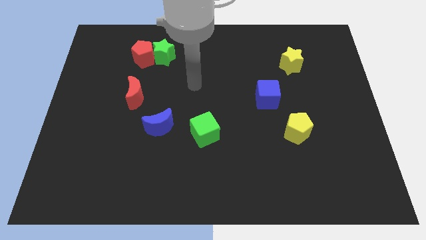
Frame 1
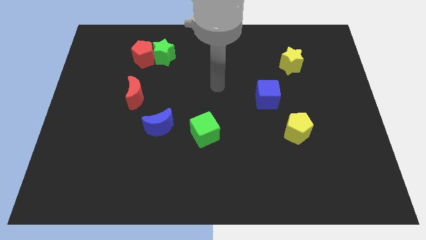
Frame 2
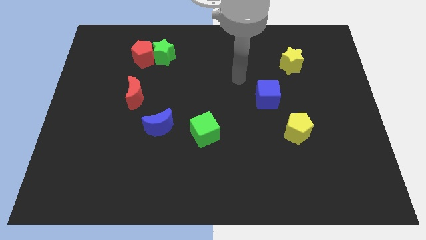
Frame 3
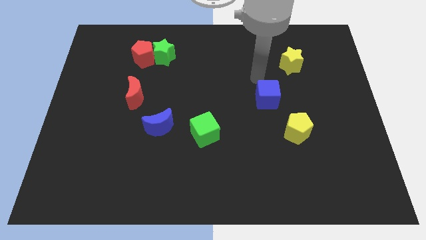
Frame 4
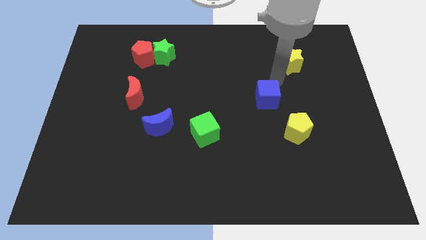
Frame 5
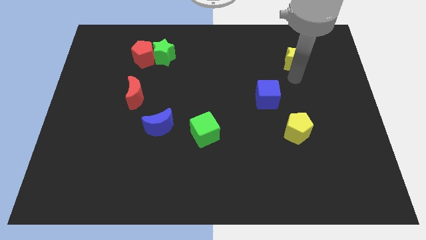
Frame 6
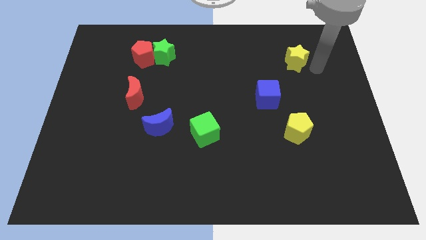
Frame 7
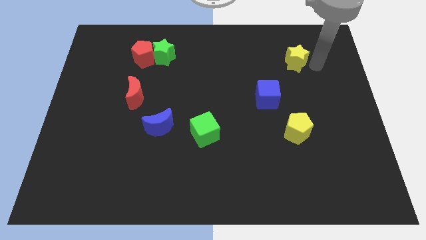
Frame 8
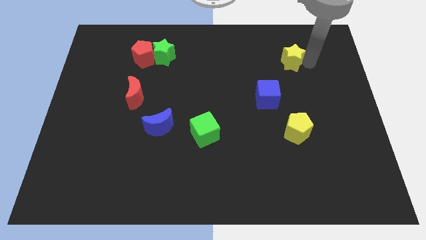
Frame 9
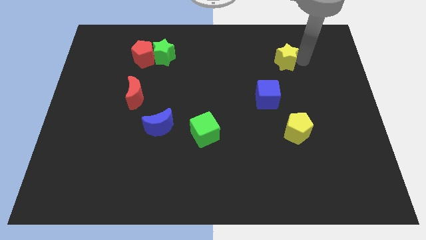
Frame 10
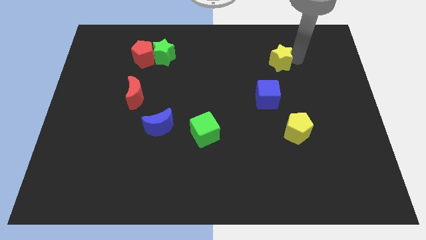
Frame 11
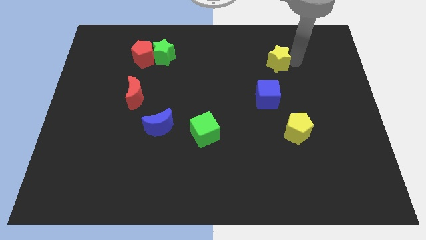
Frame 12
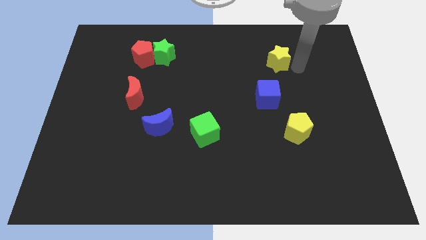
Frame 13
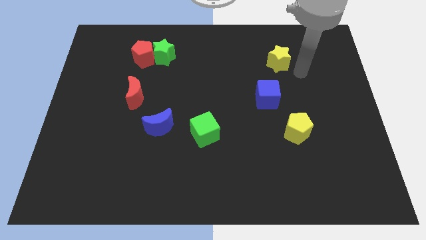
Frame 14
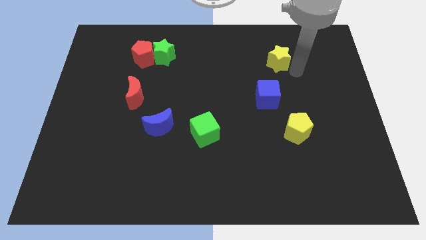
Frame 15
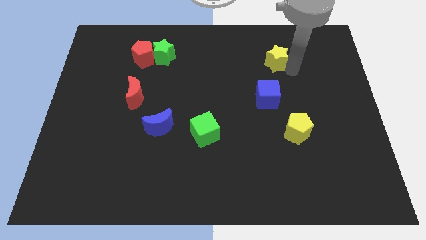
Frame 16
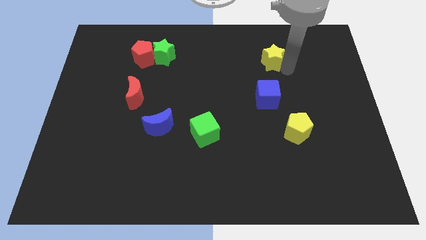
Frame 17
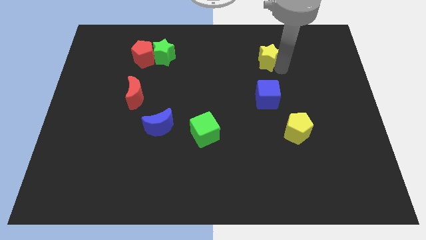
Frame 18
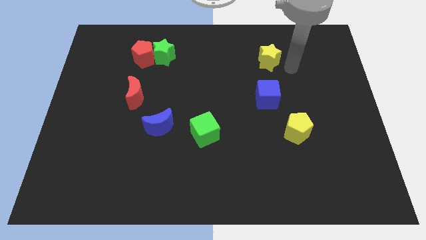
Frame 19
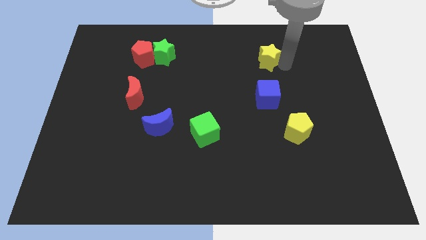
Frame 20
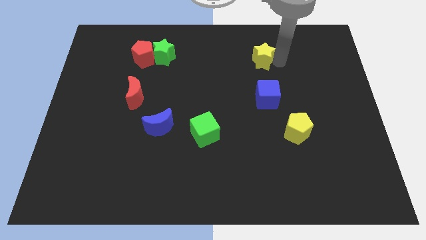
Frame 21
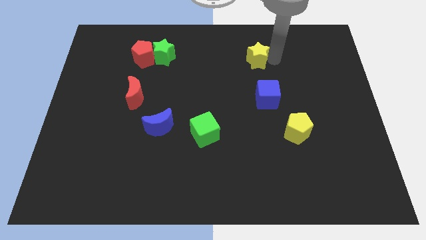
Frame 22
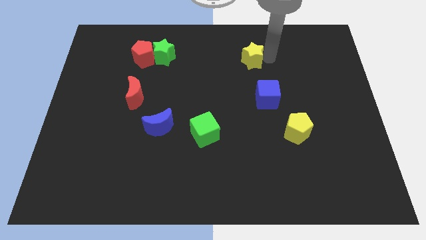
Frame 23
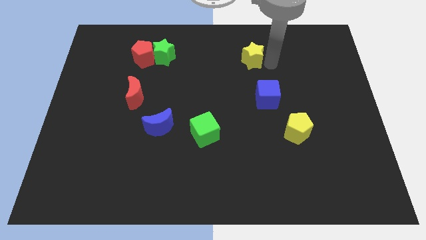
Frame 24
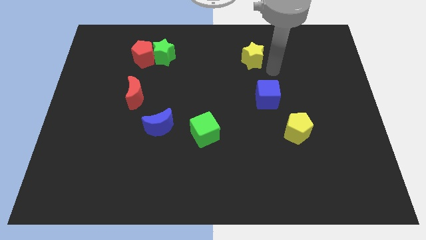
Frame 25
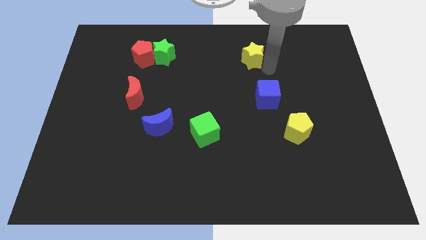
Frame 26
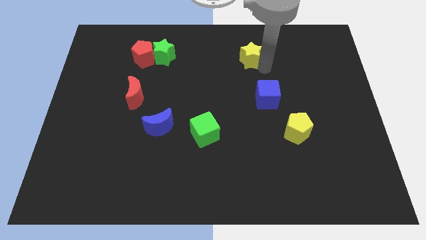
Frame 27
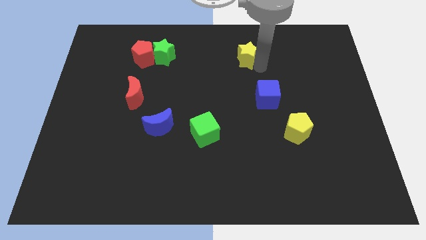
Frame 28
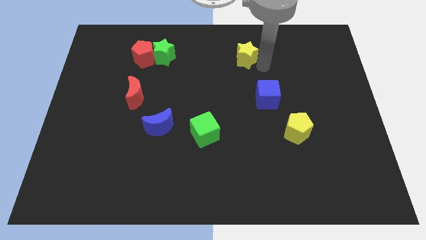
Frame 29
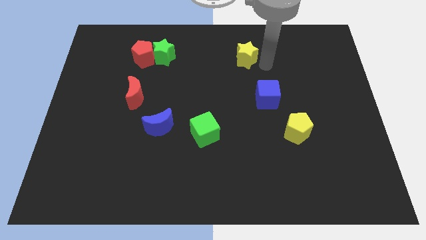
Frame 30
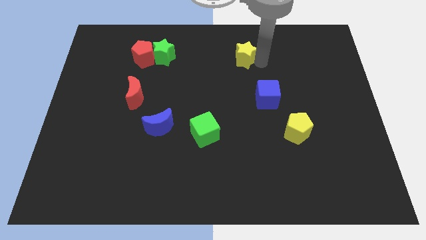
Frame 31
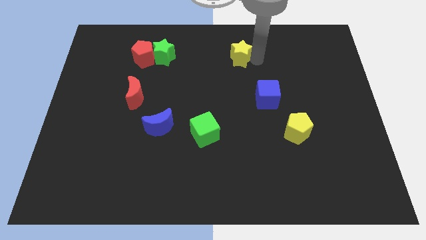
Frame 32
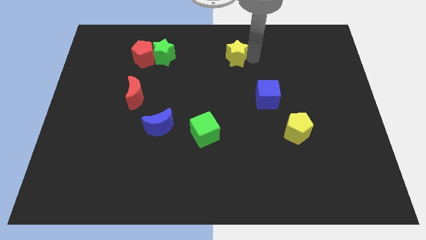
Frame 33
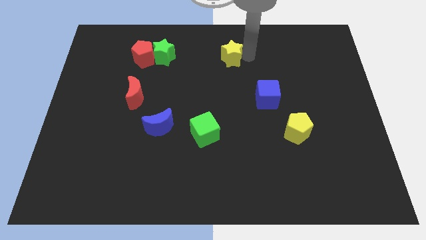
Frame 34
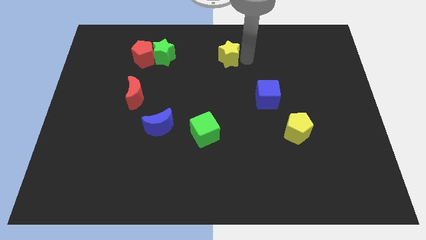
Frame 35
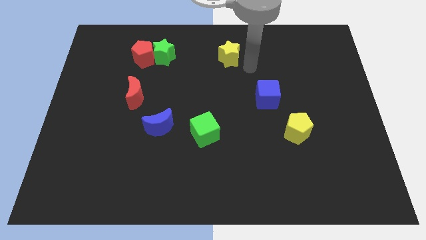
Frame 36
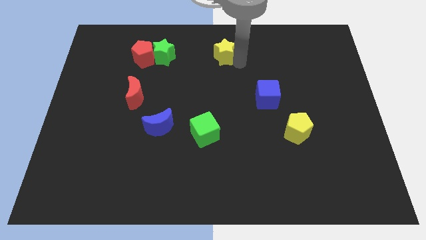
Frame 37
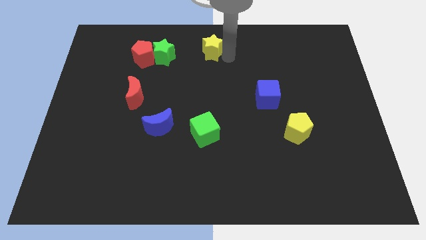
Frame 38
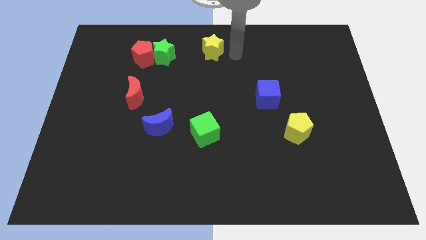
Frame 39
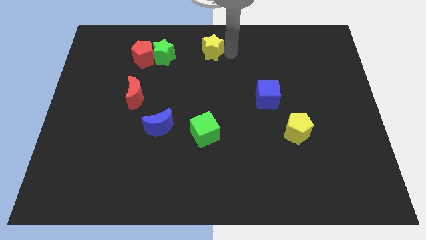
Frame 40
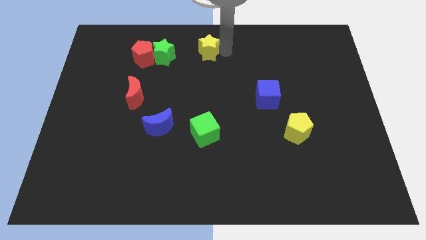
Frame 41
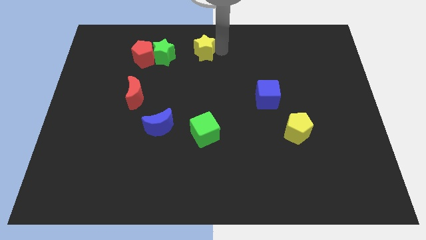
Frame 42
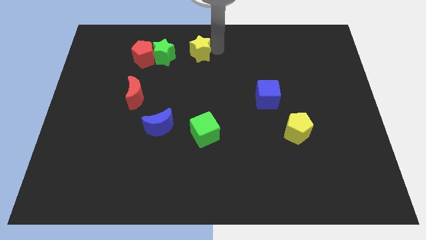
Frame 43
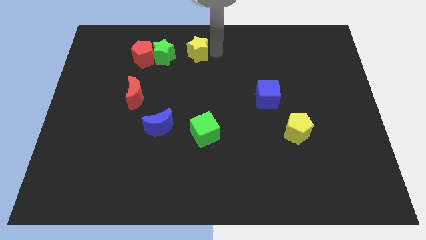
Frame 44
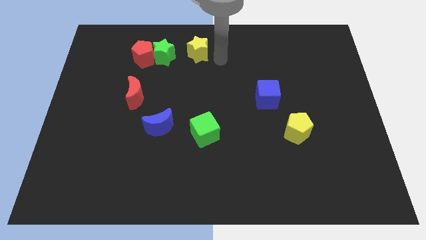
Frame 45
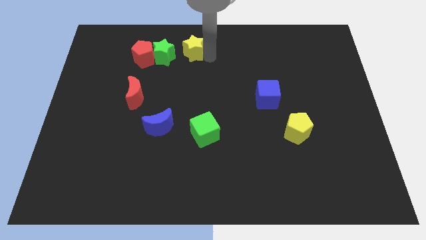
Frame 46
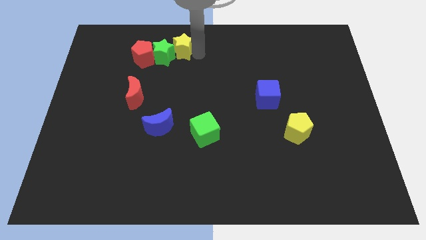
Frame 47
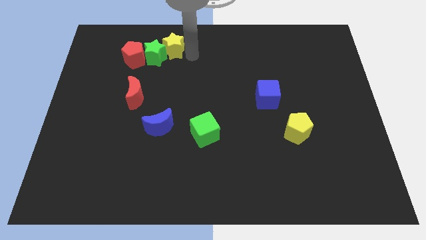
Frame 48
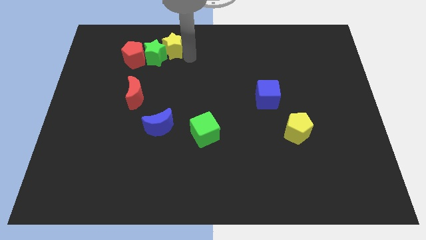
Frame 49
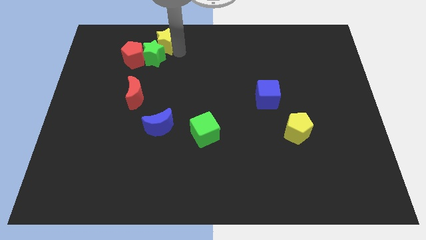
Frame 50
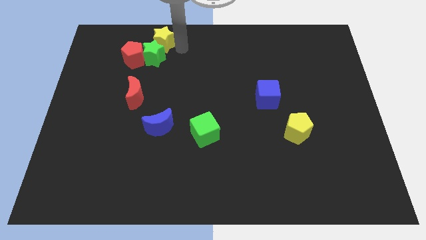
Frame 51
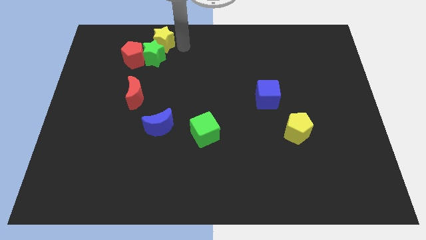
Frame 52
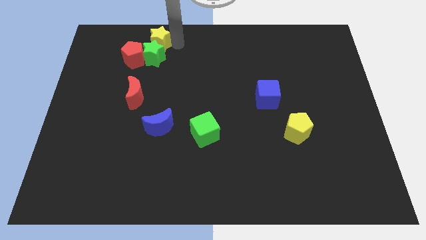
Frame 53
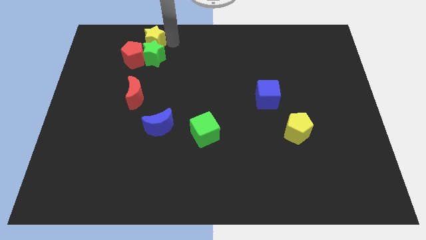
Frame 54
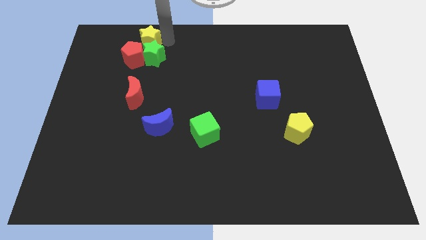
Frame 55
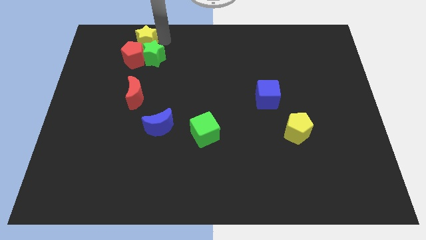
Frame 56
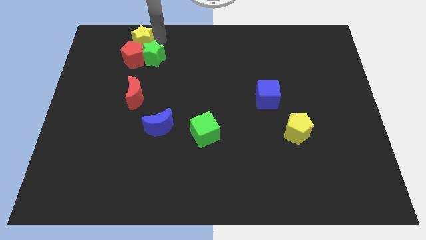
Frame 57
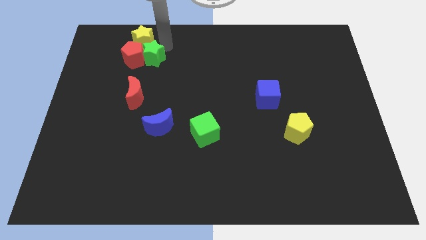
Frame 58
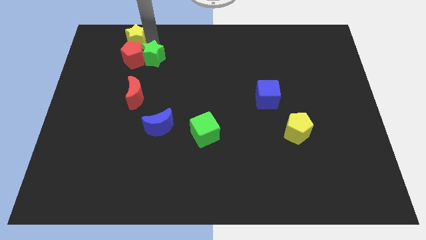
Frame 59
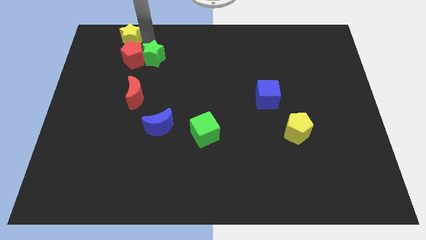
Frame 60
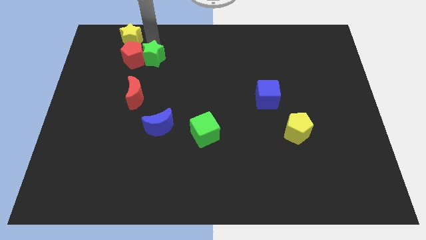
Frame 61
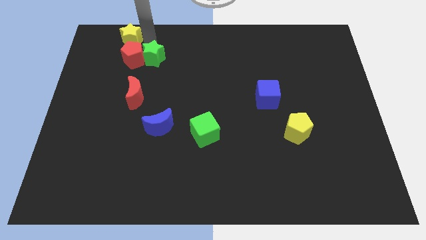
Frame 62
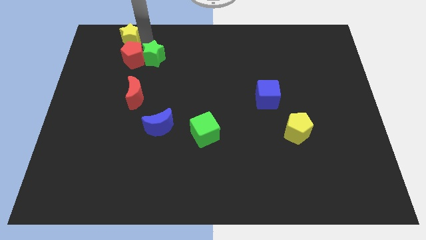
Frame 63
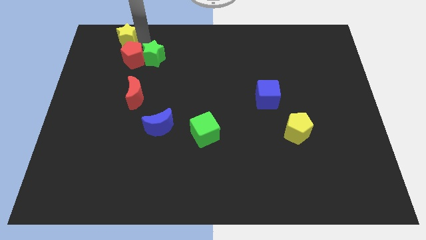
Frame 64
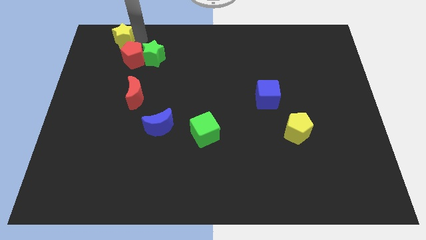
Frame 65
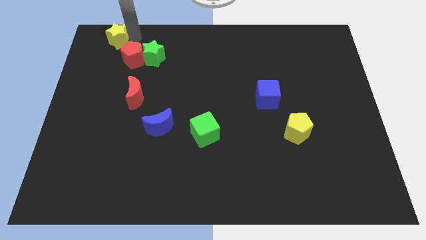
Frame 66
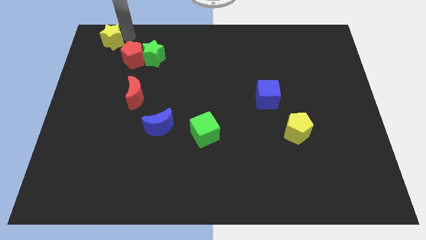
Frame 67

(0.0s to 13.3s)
slide the yellow star to the top left corner
